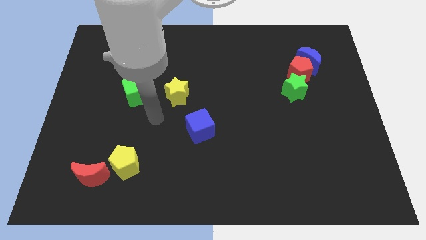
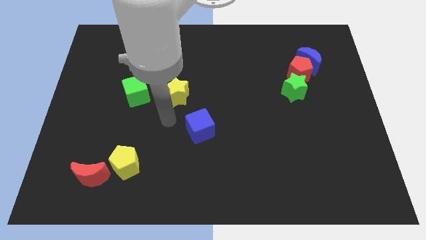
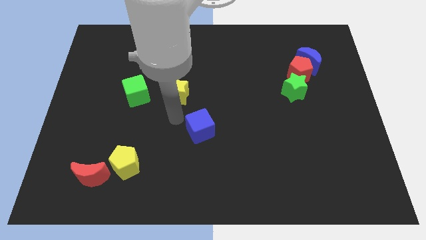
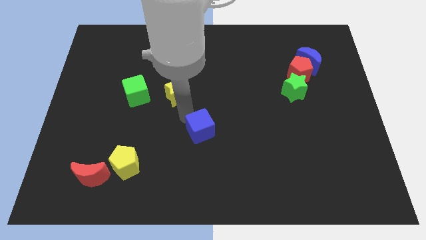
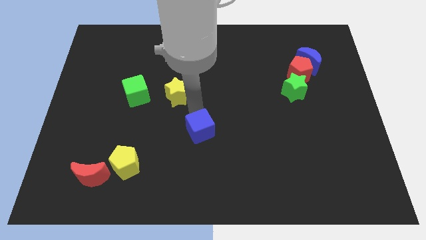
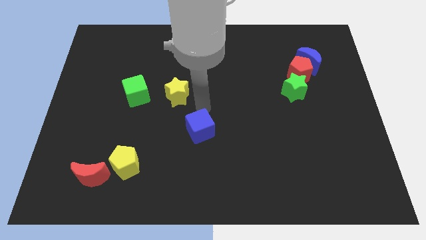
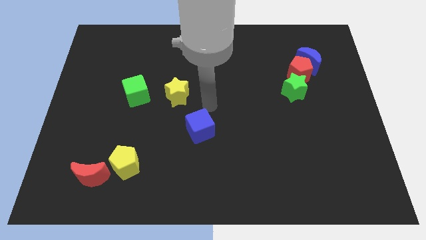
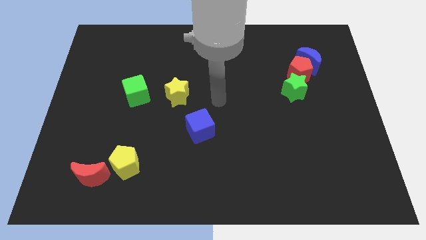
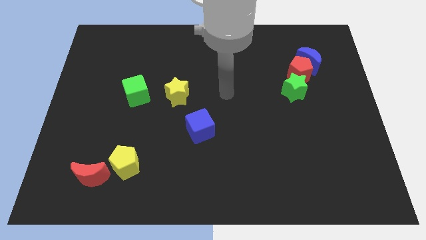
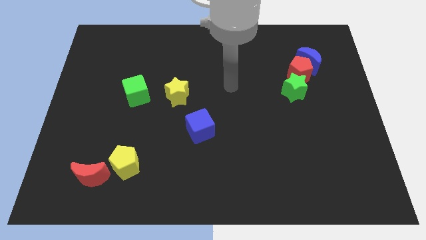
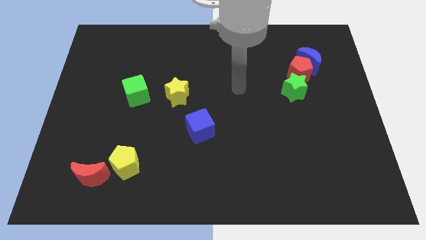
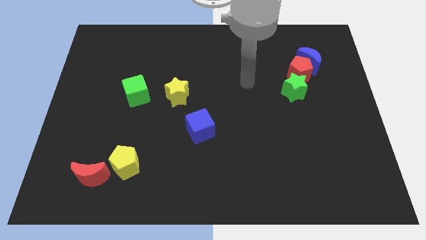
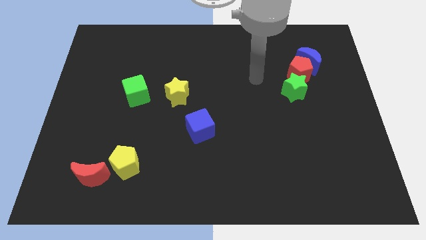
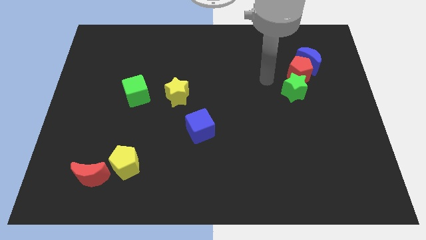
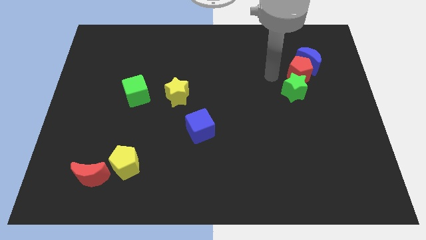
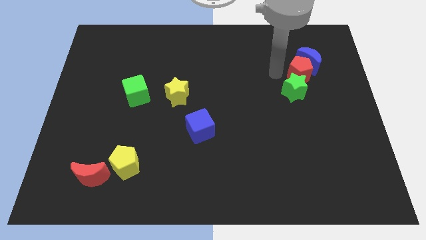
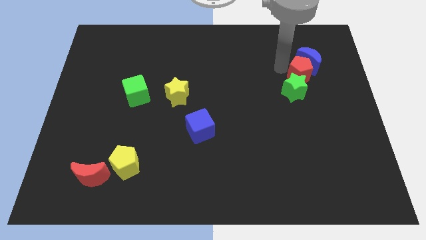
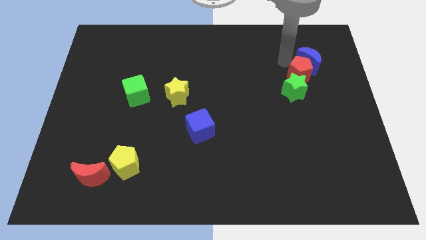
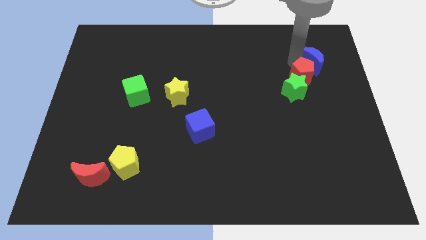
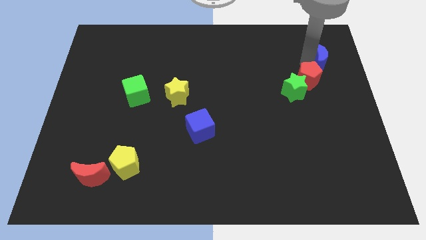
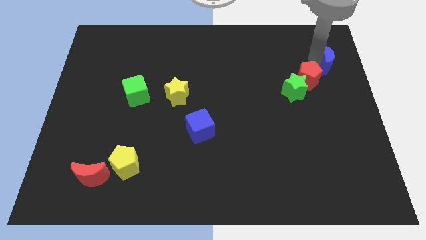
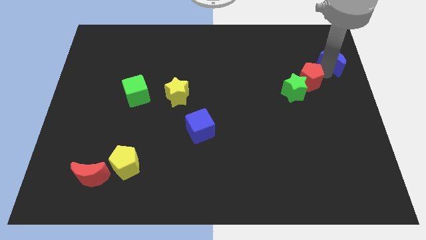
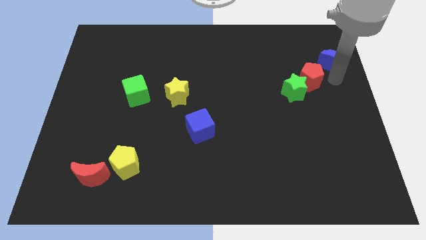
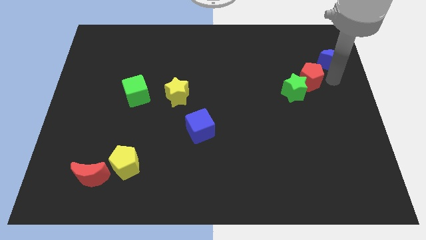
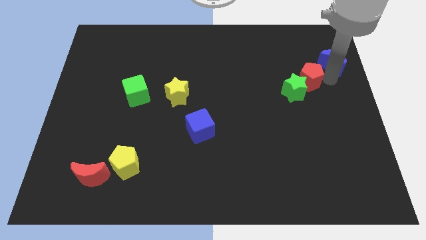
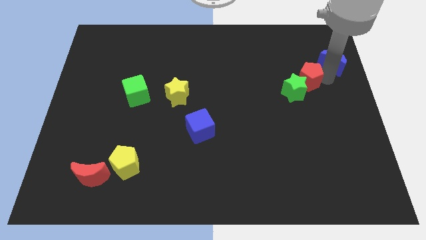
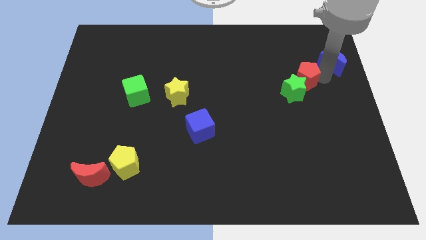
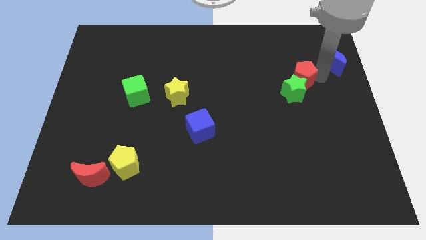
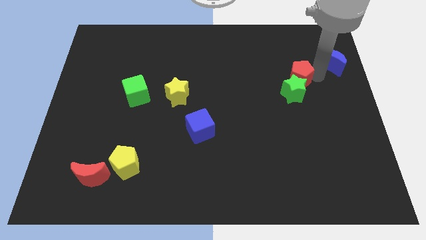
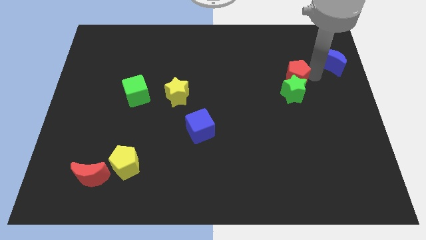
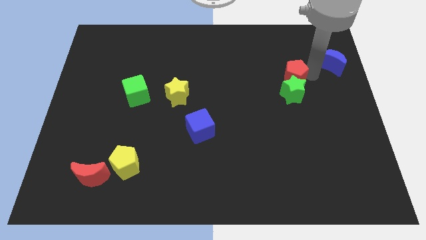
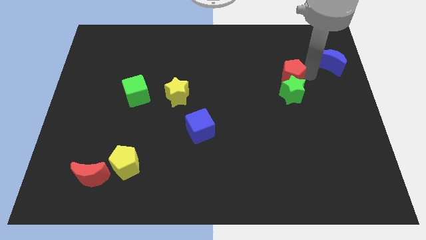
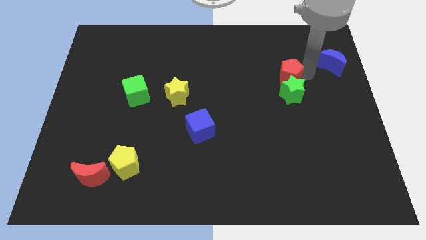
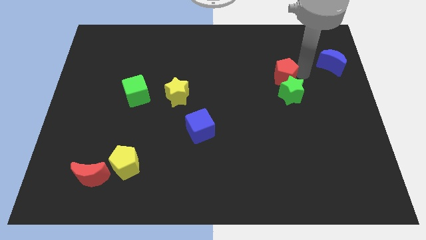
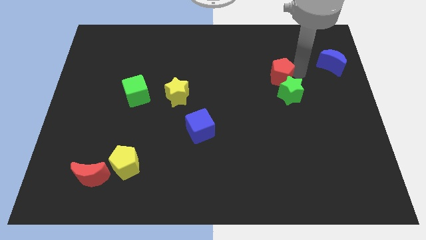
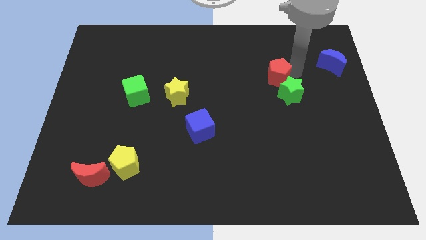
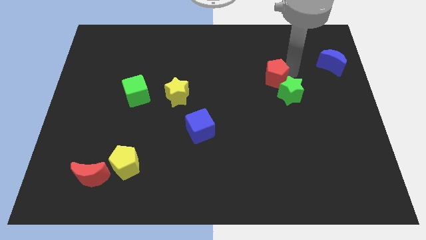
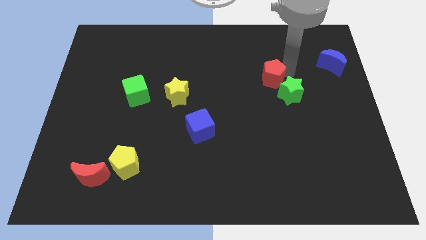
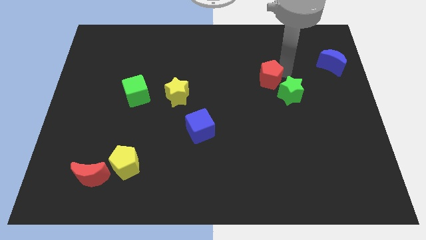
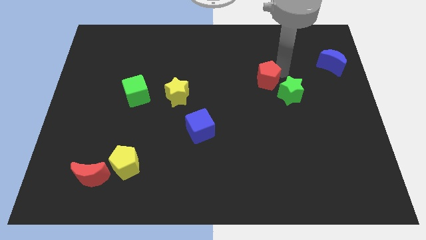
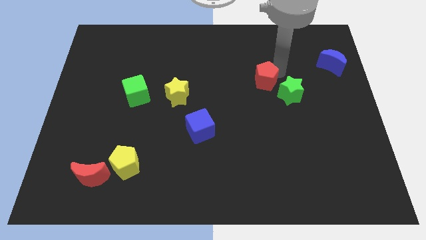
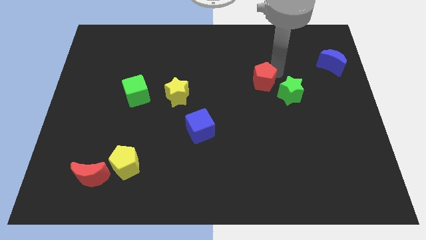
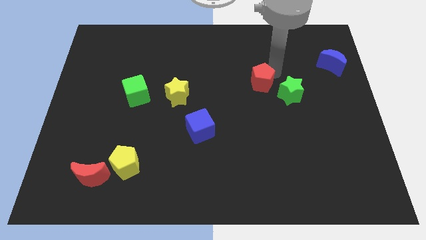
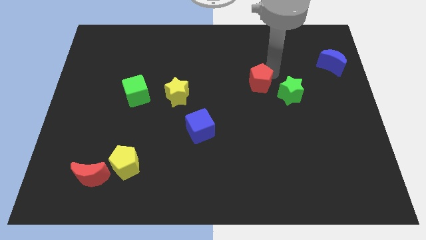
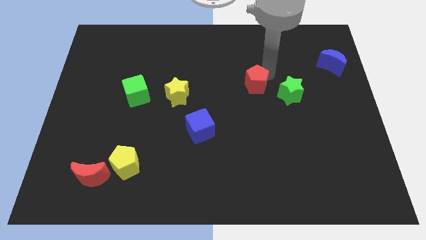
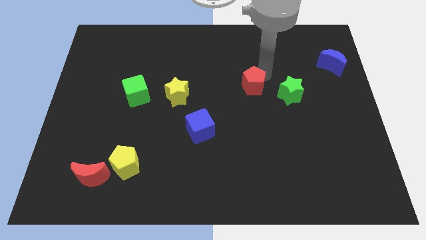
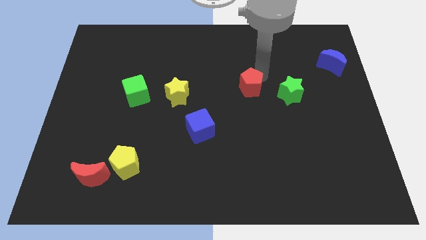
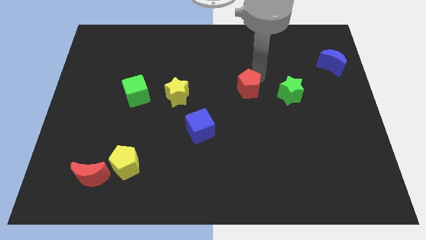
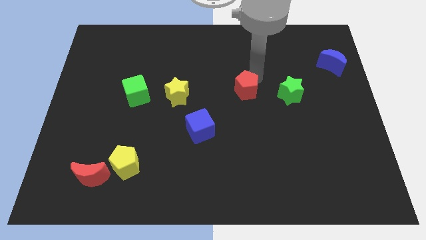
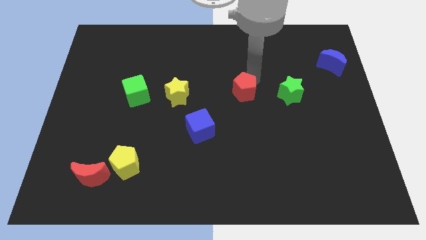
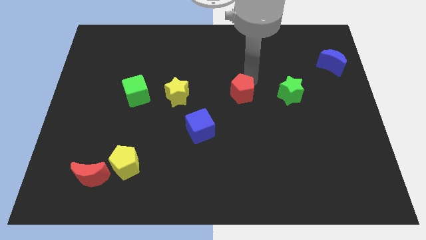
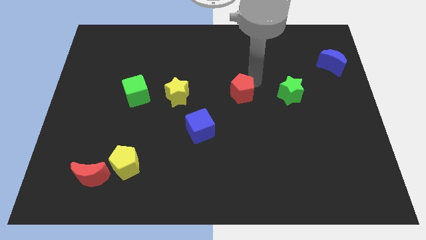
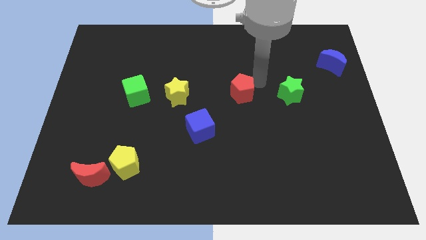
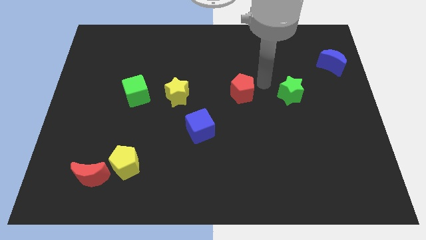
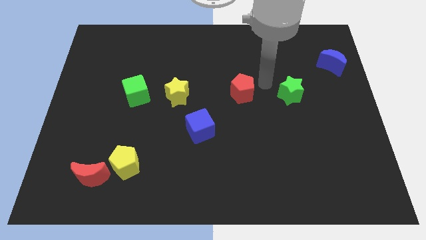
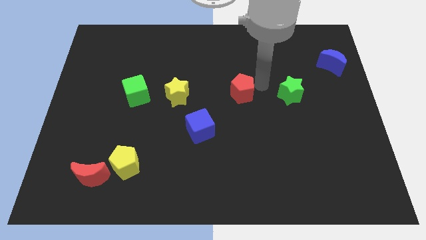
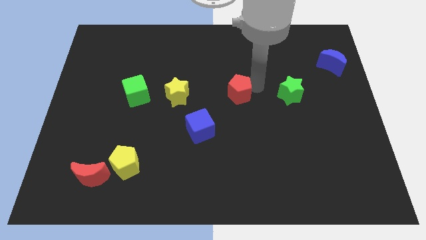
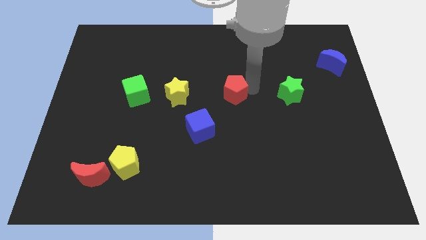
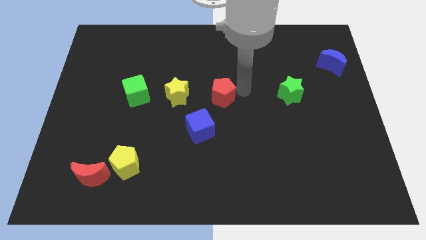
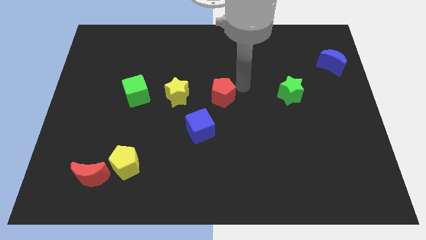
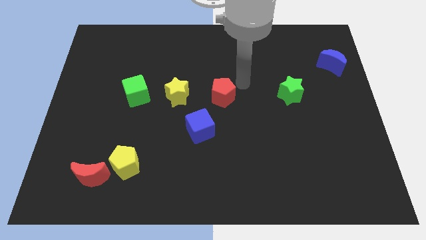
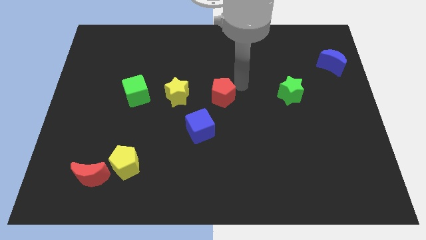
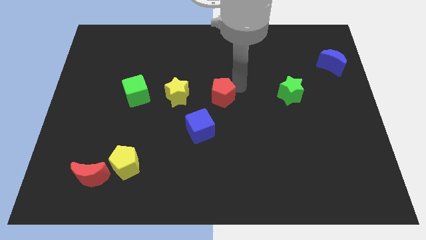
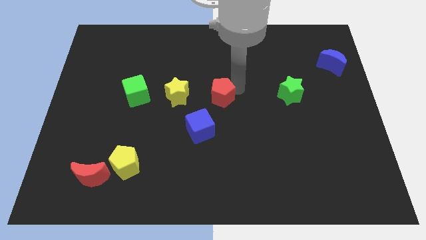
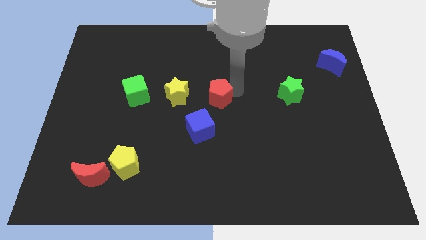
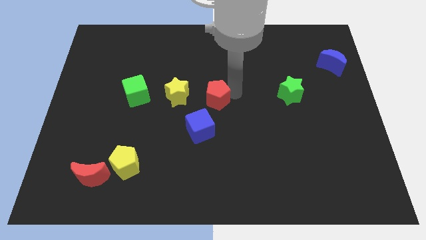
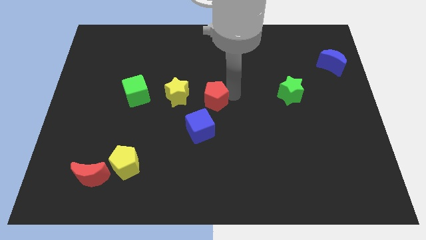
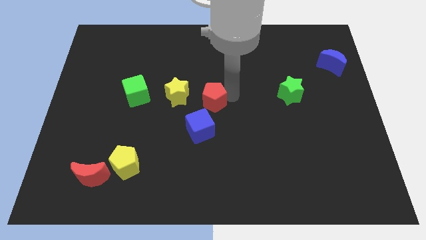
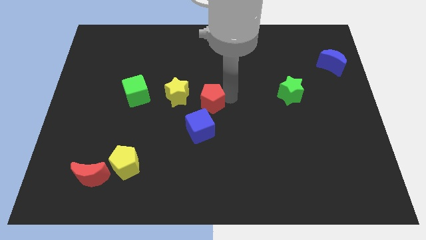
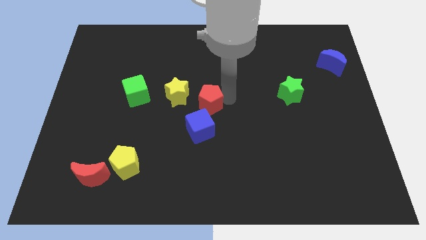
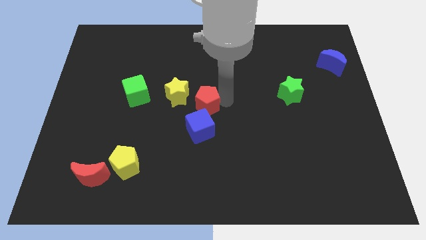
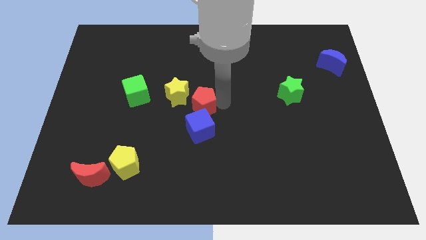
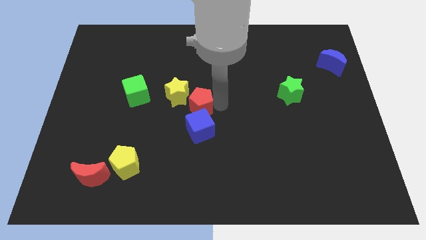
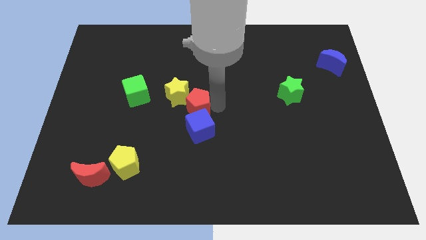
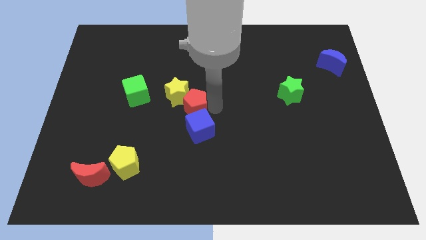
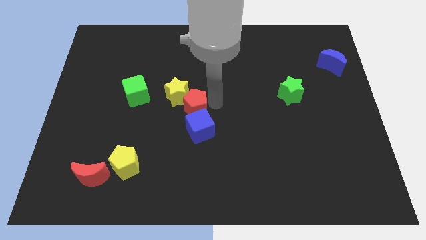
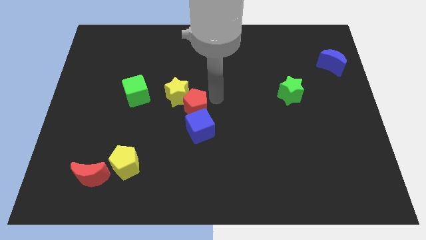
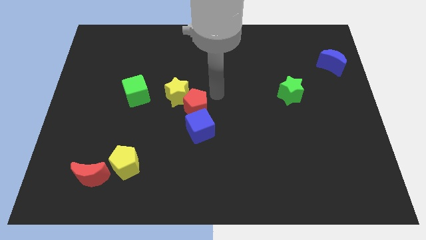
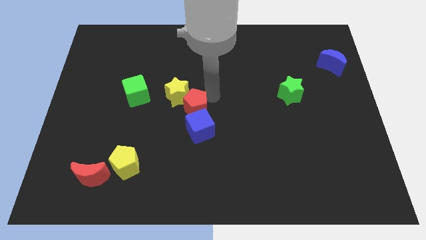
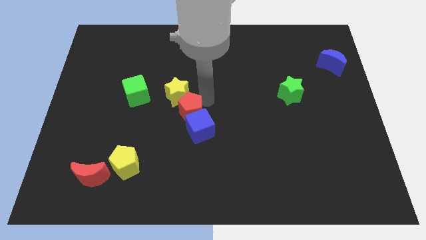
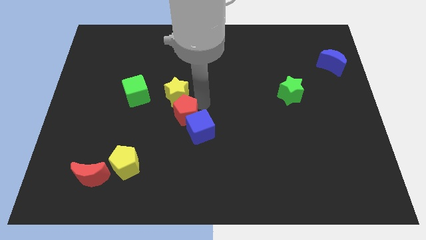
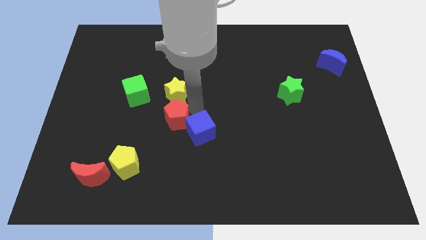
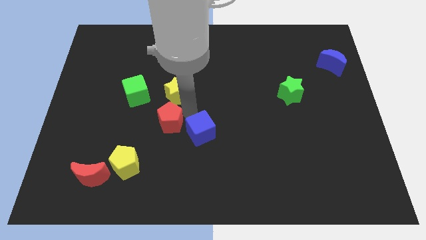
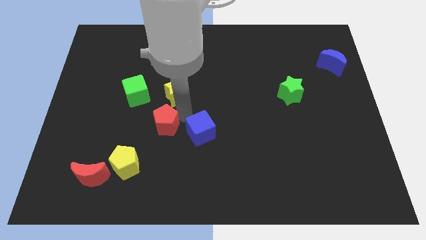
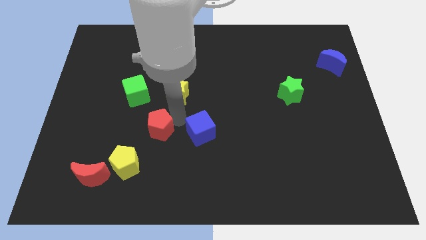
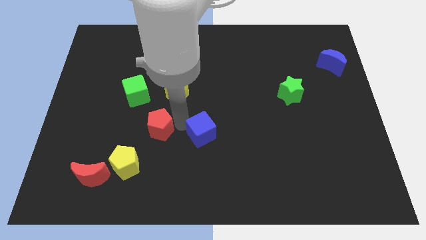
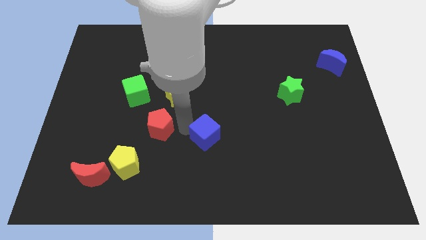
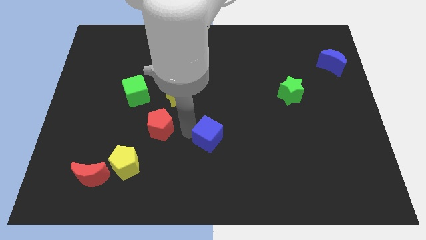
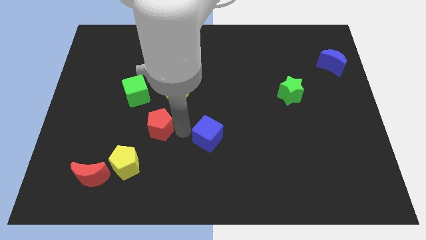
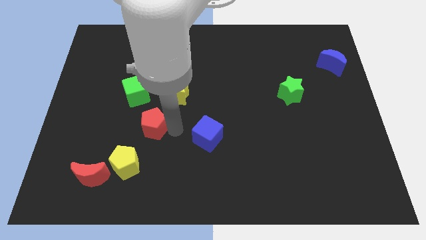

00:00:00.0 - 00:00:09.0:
push the red pentagon to the top side of the yellow pentagon
